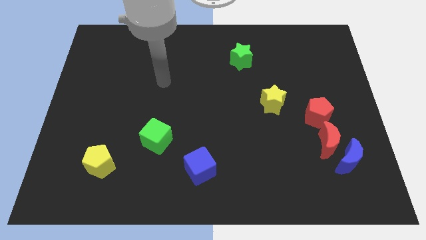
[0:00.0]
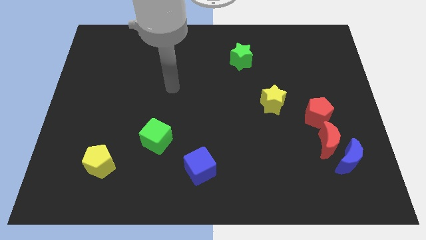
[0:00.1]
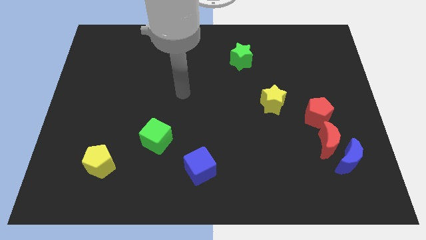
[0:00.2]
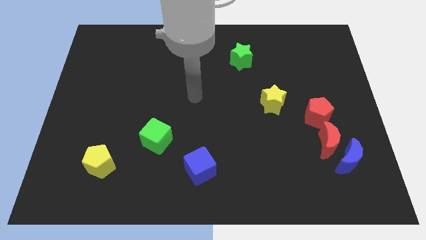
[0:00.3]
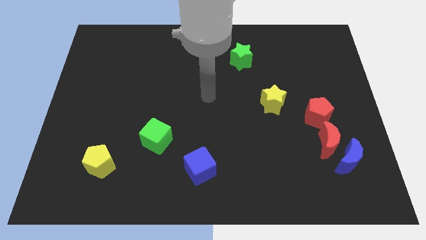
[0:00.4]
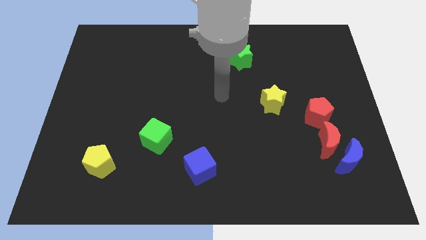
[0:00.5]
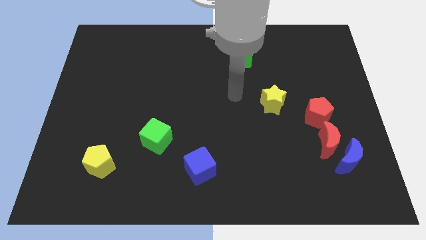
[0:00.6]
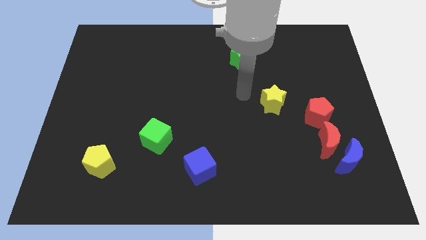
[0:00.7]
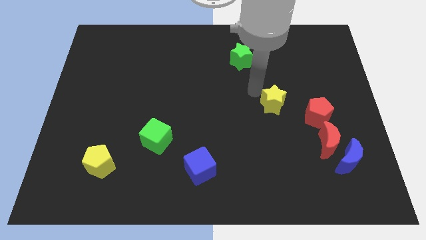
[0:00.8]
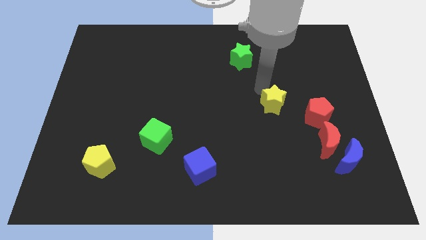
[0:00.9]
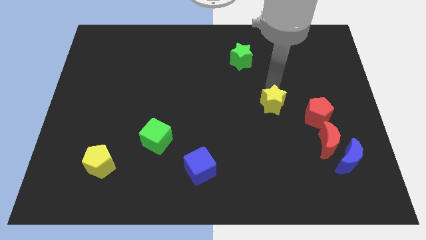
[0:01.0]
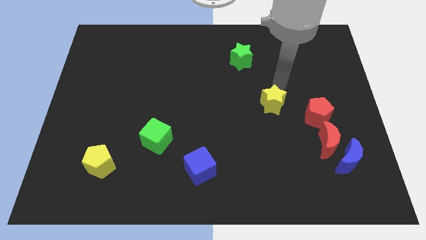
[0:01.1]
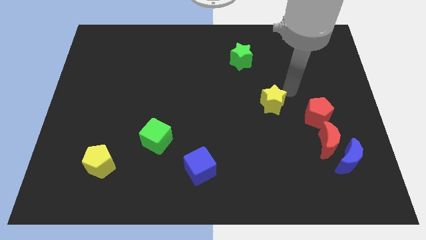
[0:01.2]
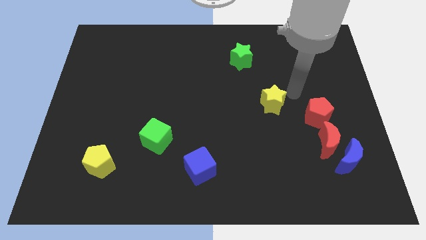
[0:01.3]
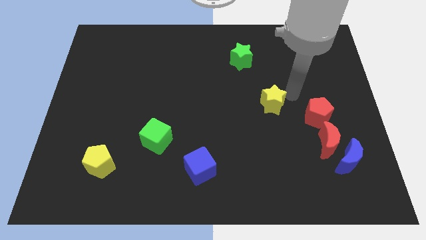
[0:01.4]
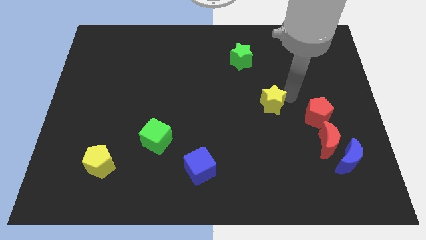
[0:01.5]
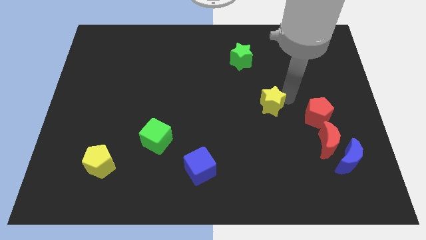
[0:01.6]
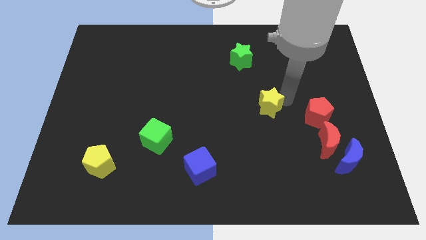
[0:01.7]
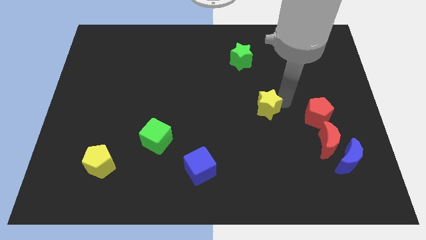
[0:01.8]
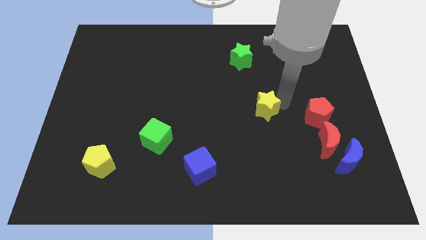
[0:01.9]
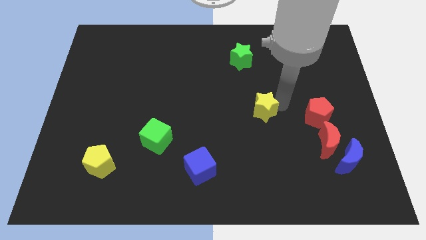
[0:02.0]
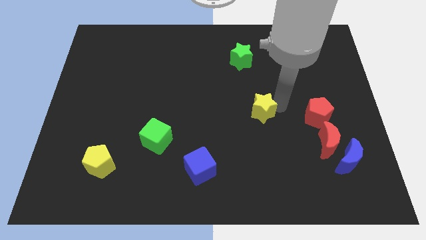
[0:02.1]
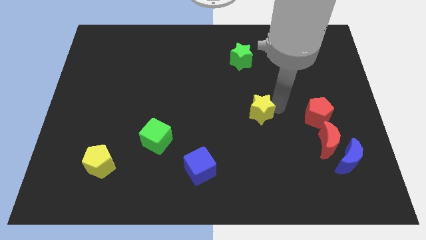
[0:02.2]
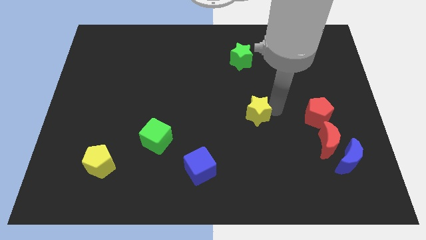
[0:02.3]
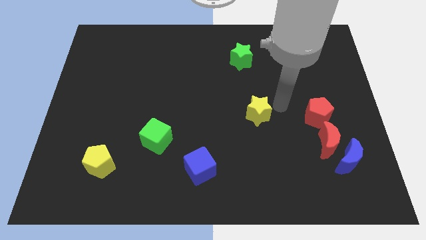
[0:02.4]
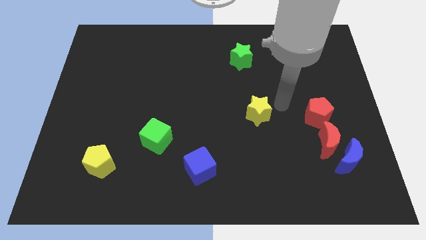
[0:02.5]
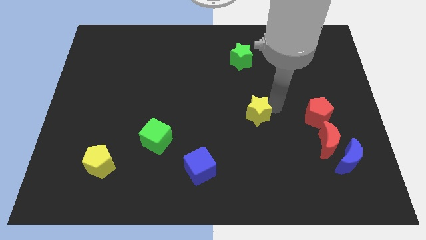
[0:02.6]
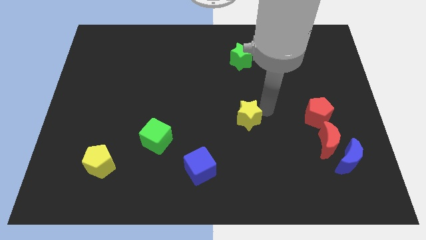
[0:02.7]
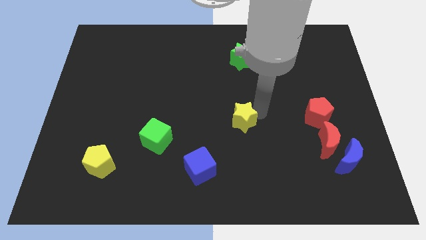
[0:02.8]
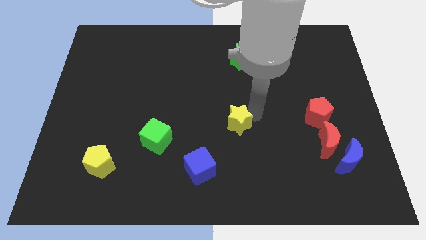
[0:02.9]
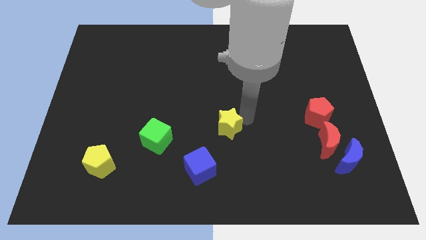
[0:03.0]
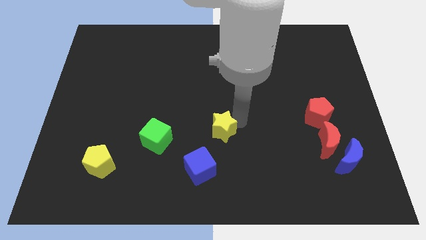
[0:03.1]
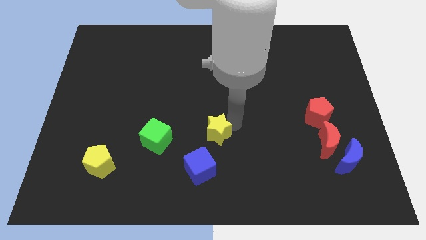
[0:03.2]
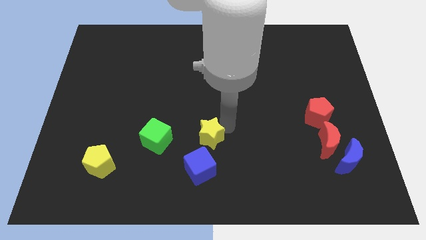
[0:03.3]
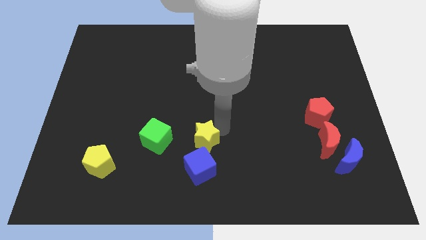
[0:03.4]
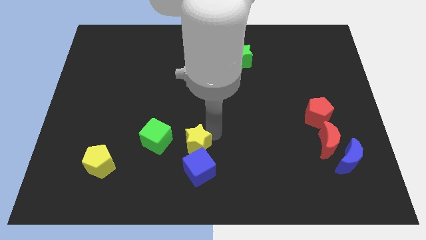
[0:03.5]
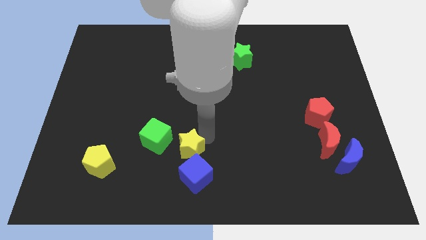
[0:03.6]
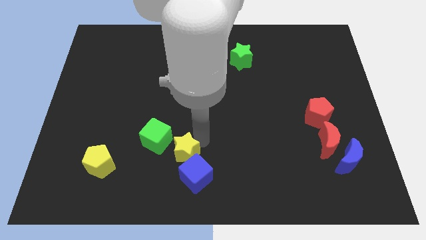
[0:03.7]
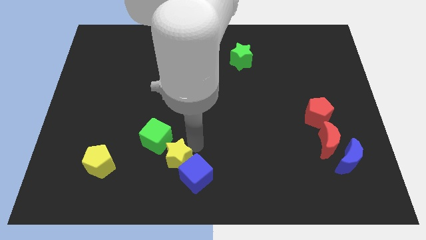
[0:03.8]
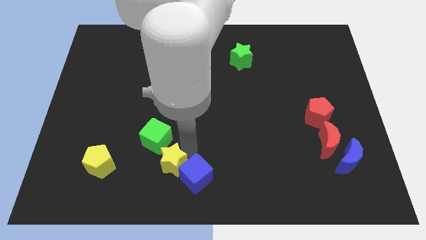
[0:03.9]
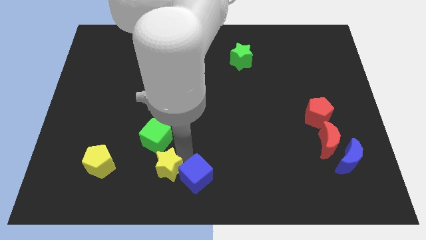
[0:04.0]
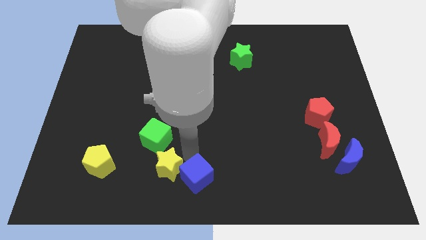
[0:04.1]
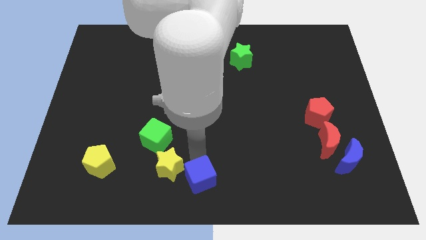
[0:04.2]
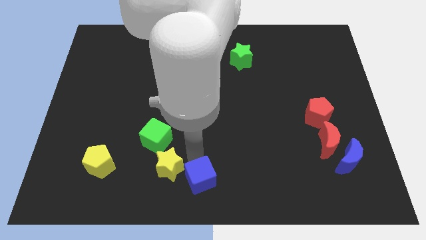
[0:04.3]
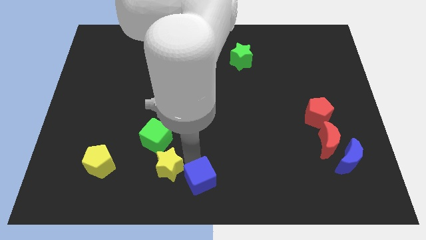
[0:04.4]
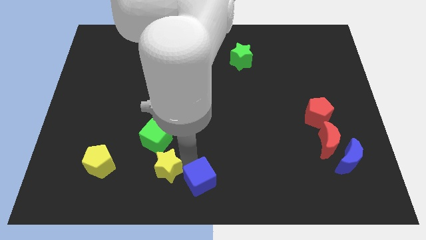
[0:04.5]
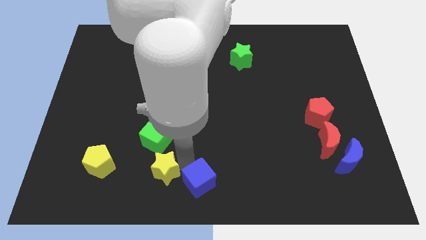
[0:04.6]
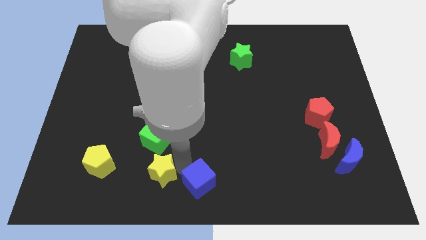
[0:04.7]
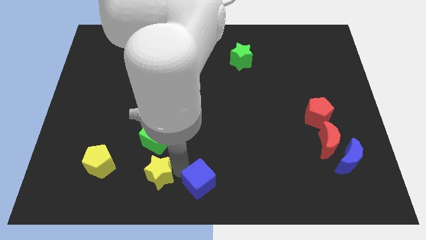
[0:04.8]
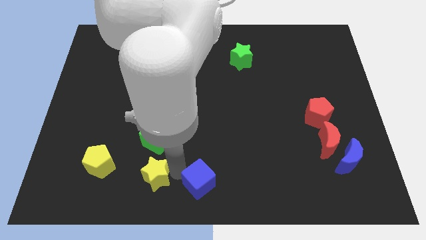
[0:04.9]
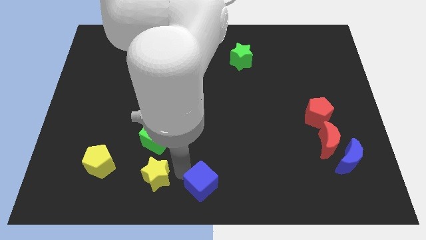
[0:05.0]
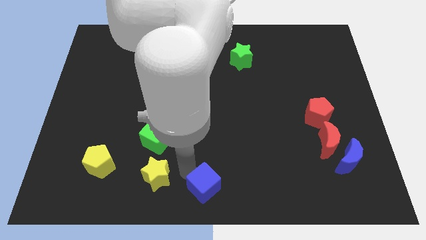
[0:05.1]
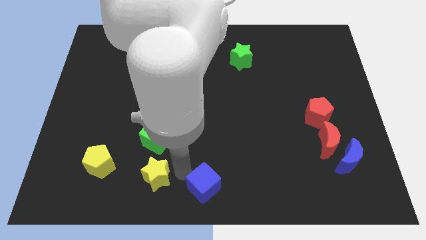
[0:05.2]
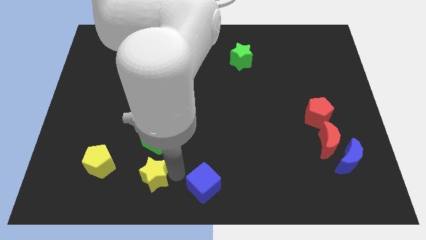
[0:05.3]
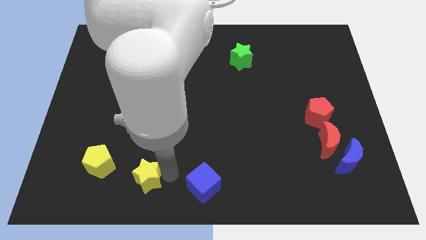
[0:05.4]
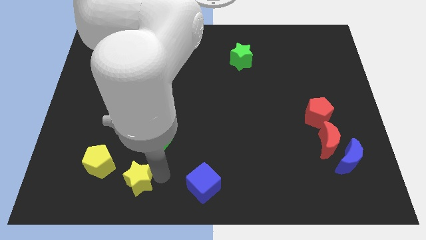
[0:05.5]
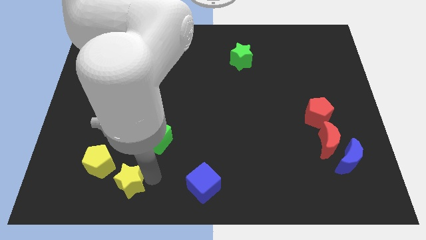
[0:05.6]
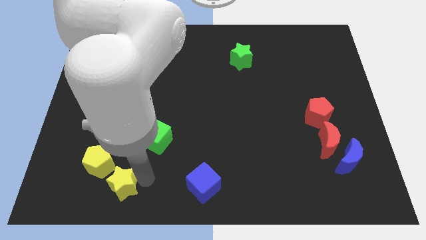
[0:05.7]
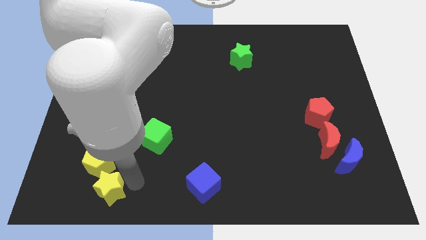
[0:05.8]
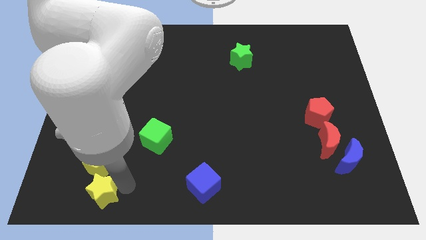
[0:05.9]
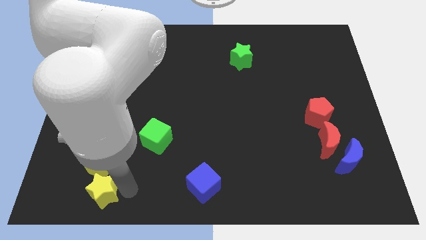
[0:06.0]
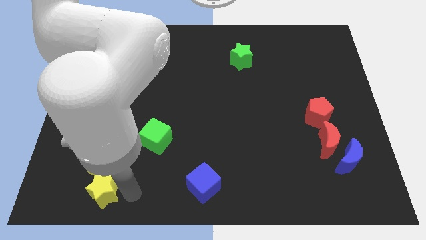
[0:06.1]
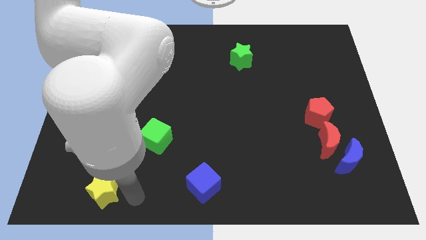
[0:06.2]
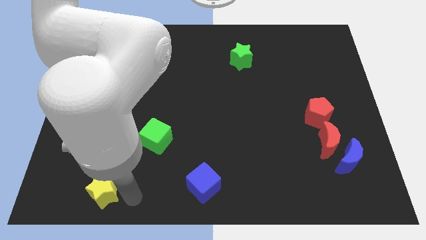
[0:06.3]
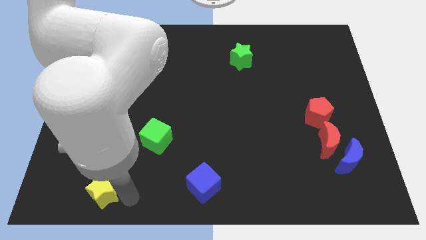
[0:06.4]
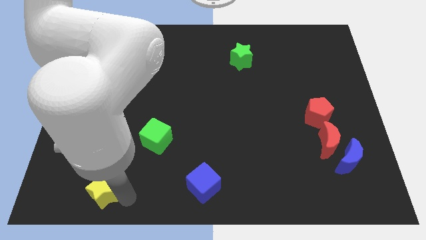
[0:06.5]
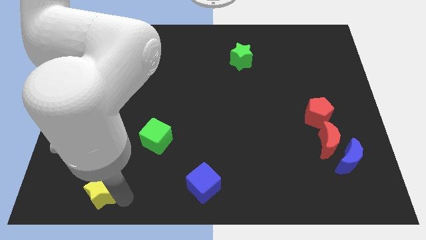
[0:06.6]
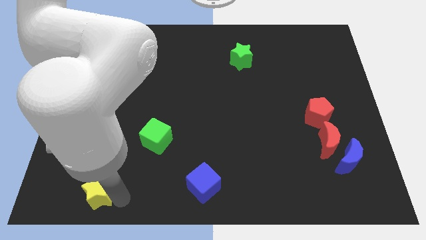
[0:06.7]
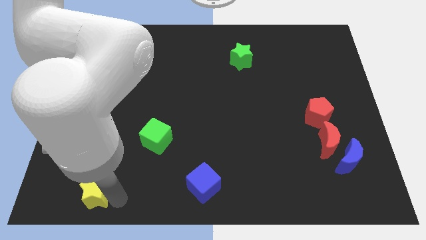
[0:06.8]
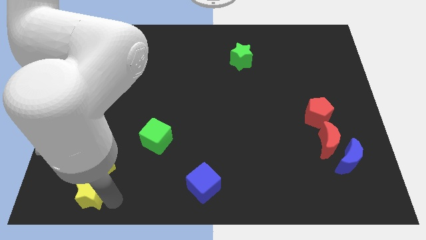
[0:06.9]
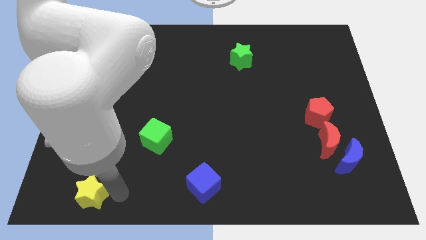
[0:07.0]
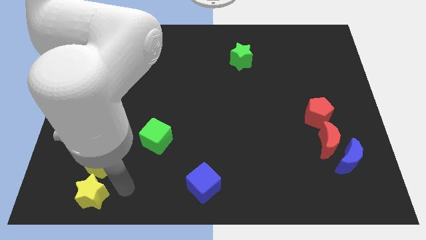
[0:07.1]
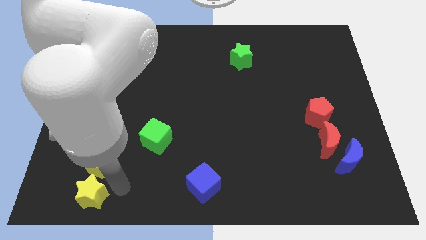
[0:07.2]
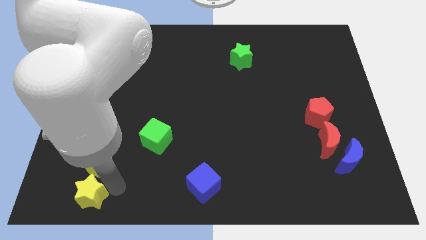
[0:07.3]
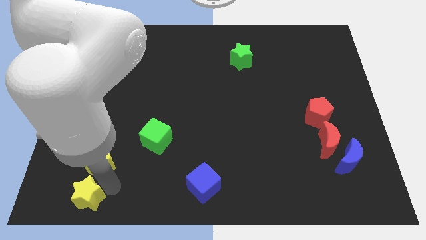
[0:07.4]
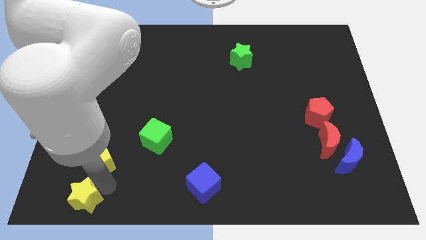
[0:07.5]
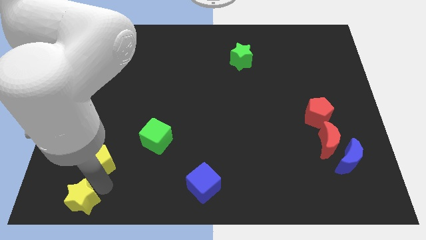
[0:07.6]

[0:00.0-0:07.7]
push the yellow star to the bottom left of the board
